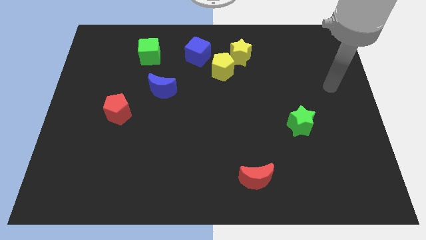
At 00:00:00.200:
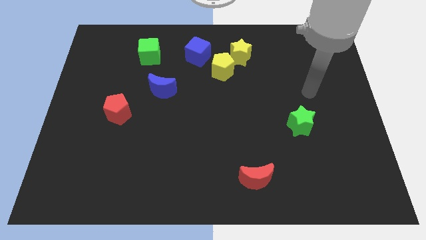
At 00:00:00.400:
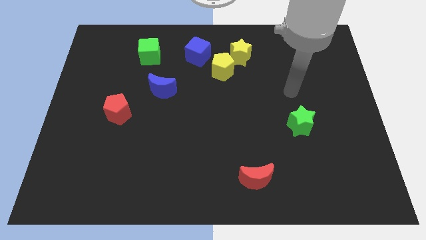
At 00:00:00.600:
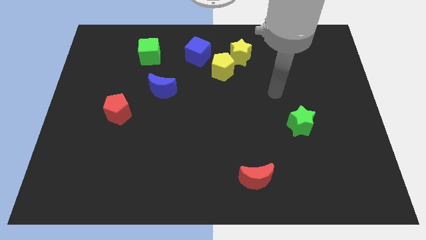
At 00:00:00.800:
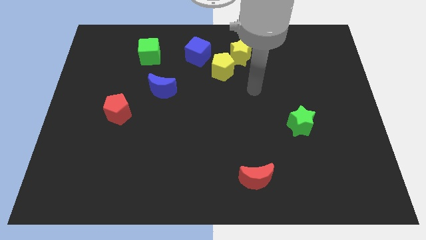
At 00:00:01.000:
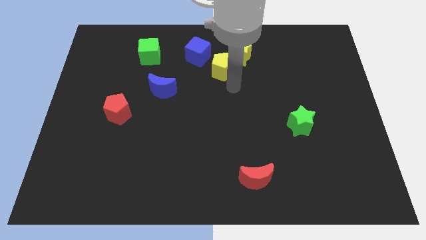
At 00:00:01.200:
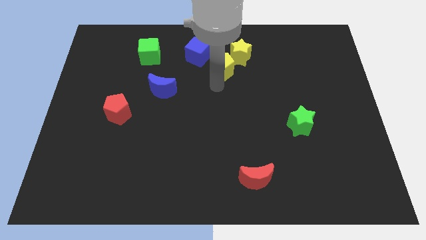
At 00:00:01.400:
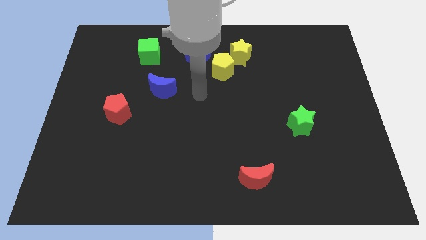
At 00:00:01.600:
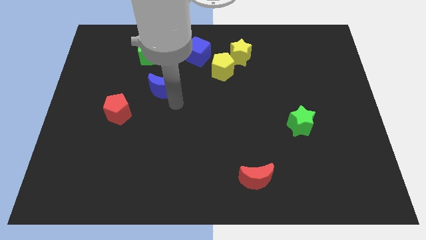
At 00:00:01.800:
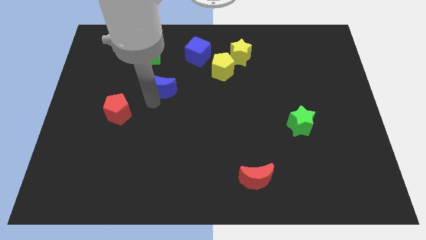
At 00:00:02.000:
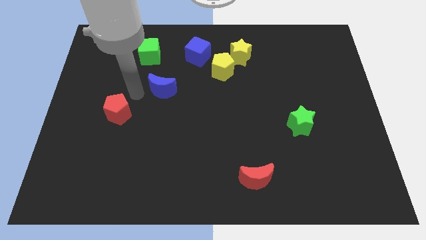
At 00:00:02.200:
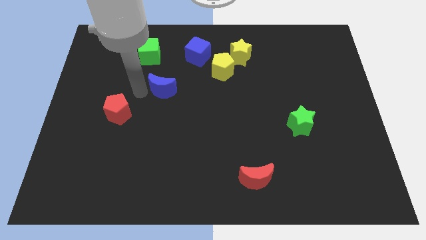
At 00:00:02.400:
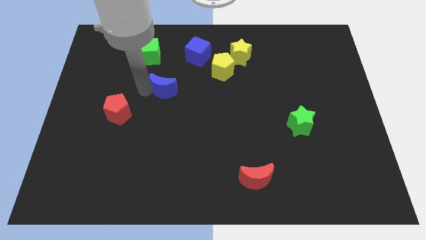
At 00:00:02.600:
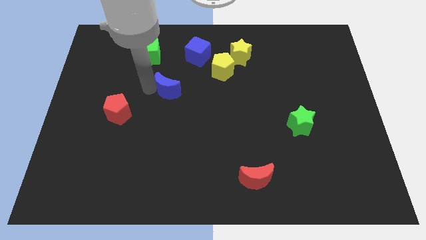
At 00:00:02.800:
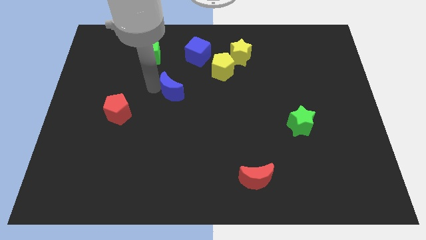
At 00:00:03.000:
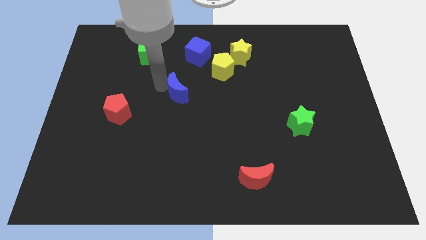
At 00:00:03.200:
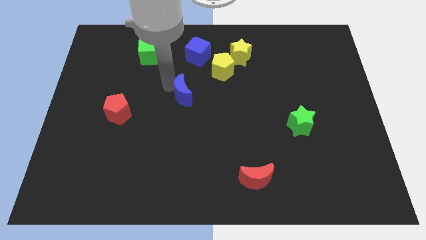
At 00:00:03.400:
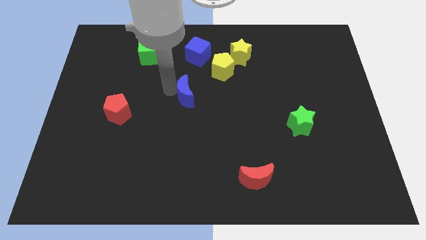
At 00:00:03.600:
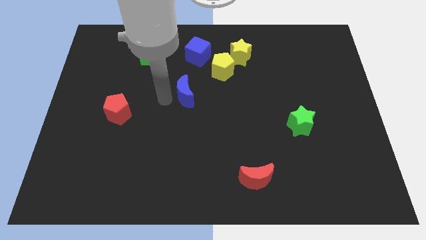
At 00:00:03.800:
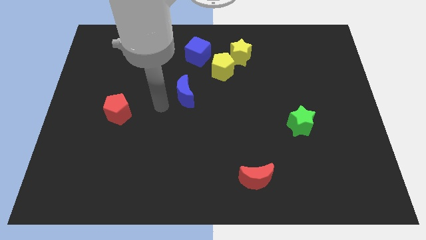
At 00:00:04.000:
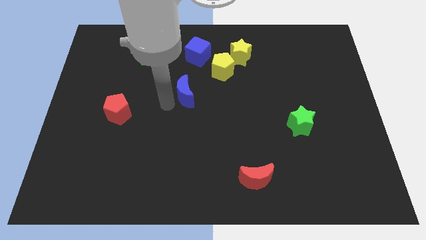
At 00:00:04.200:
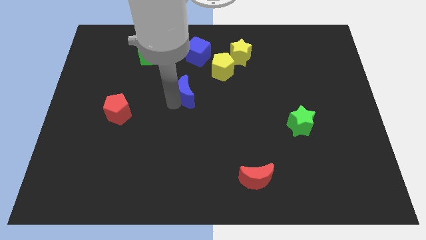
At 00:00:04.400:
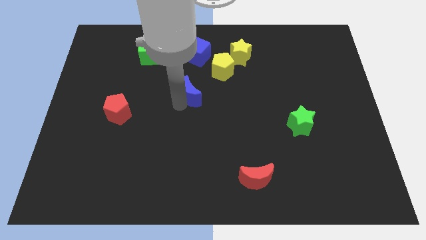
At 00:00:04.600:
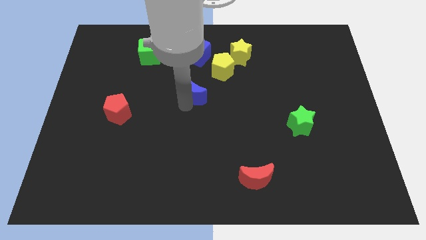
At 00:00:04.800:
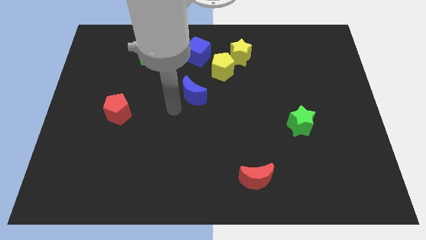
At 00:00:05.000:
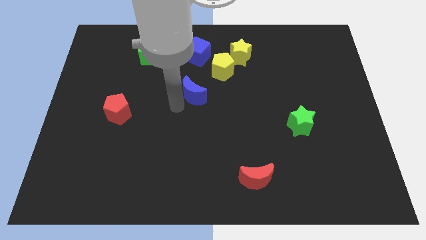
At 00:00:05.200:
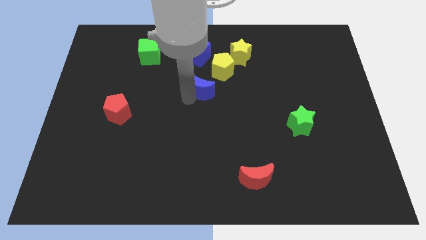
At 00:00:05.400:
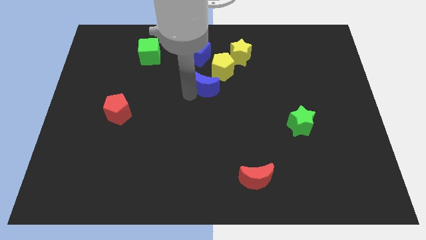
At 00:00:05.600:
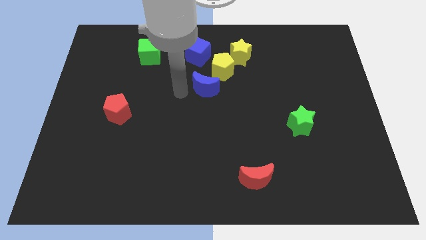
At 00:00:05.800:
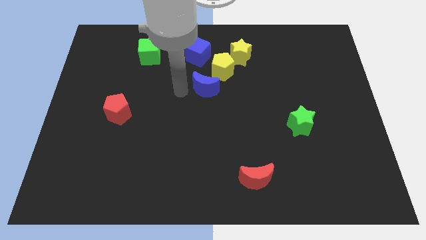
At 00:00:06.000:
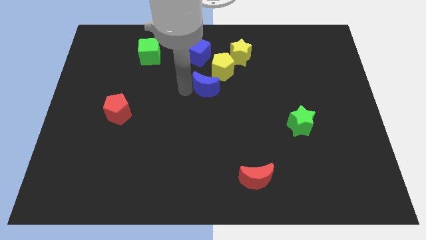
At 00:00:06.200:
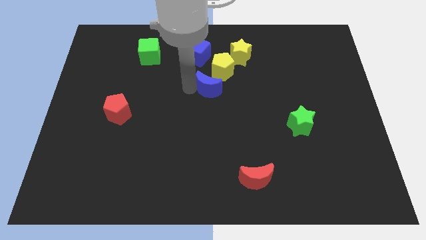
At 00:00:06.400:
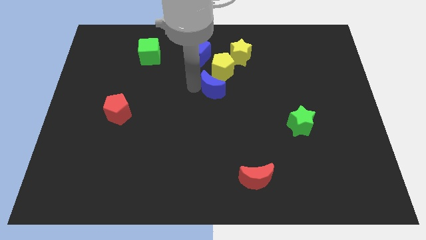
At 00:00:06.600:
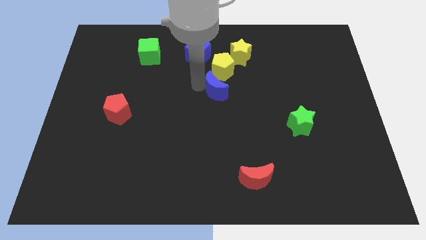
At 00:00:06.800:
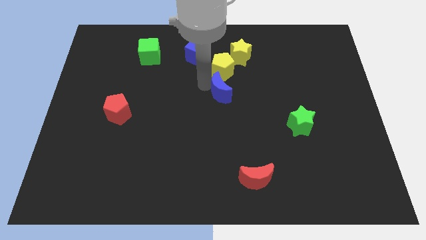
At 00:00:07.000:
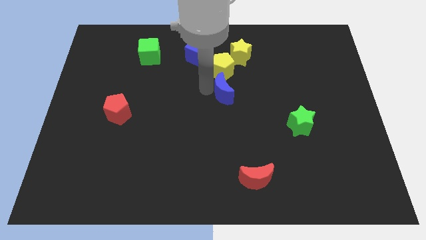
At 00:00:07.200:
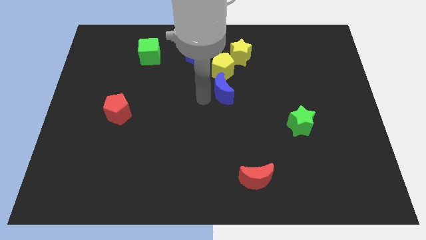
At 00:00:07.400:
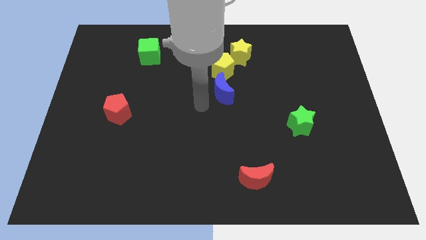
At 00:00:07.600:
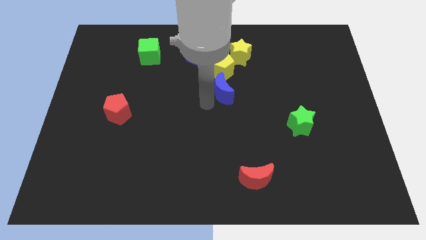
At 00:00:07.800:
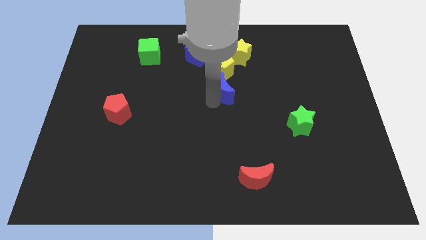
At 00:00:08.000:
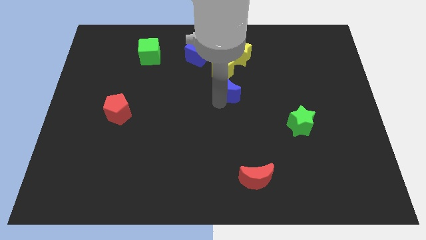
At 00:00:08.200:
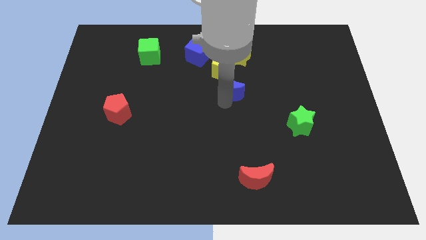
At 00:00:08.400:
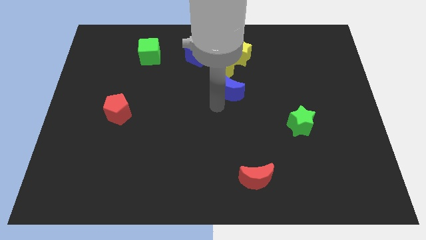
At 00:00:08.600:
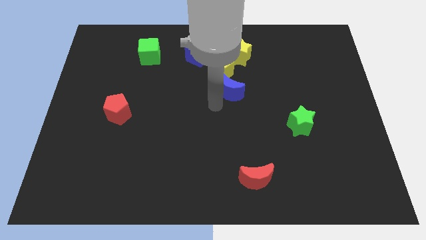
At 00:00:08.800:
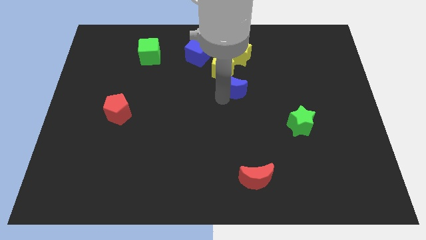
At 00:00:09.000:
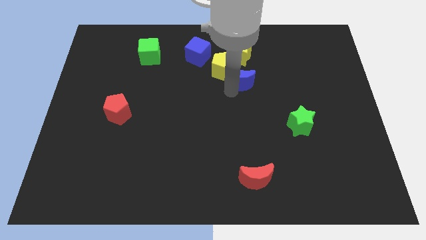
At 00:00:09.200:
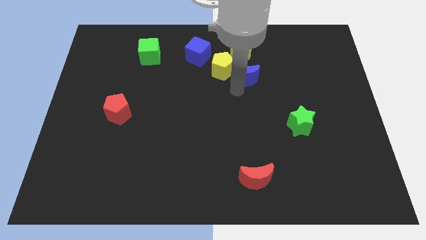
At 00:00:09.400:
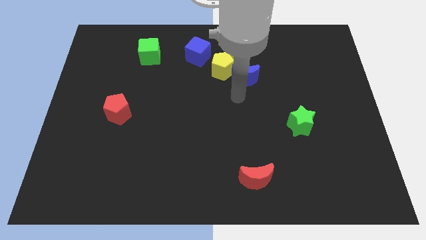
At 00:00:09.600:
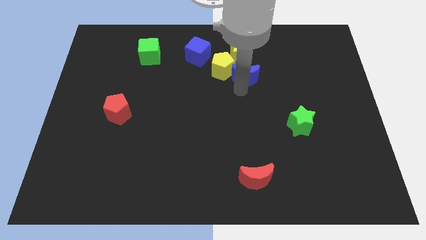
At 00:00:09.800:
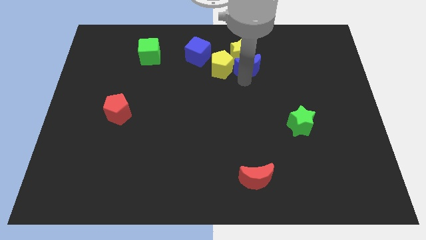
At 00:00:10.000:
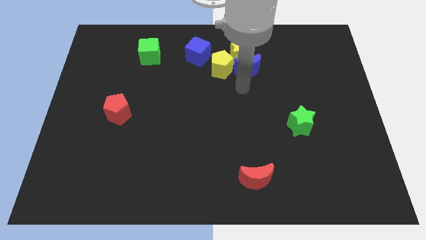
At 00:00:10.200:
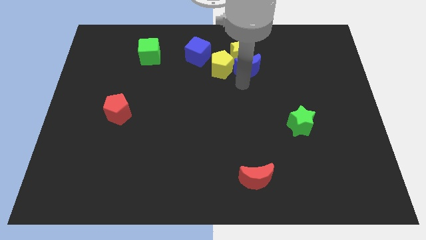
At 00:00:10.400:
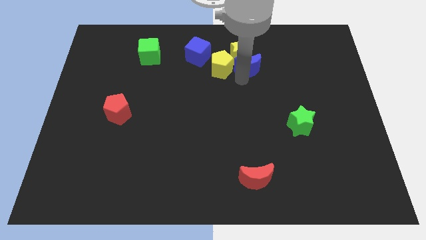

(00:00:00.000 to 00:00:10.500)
move the blue moon diagonally up and to the right of the yellow pentagon

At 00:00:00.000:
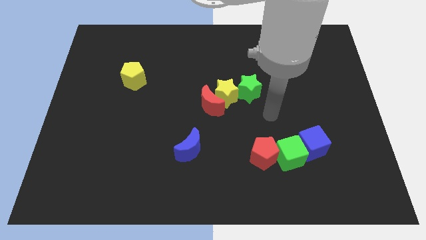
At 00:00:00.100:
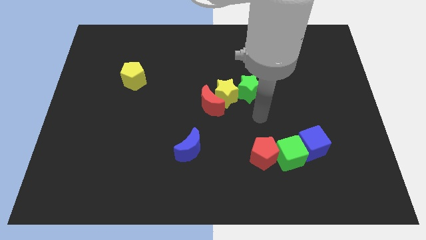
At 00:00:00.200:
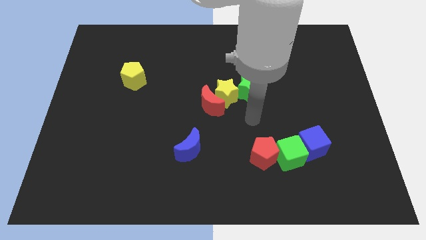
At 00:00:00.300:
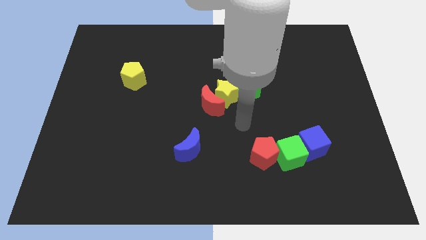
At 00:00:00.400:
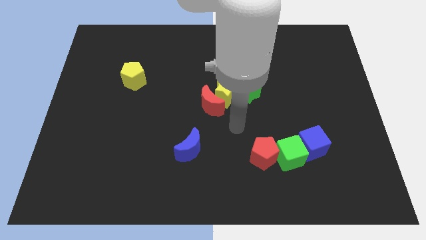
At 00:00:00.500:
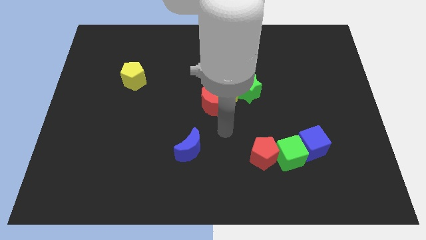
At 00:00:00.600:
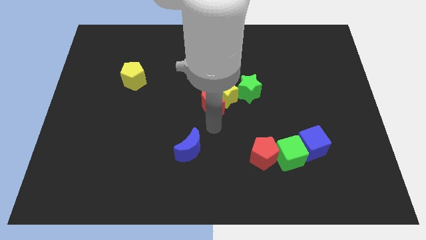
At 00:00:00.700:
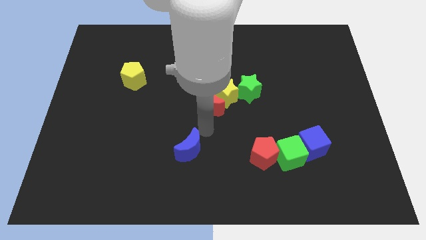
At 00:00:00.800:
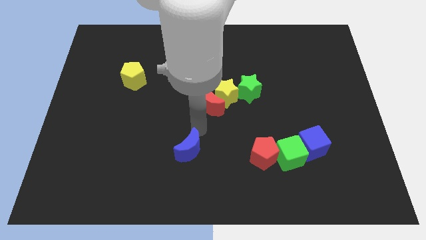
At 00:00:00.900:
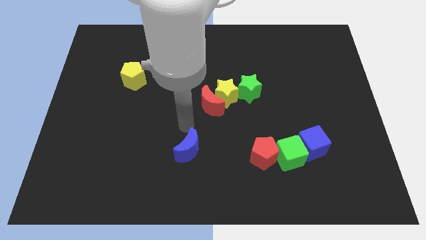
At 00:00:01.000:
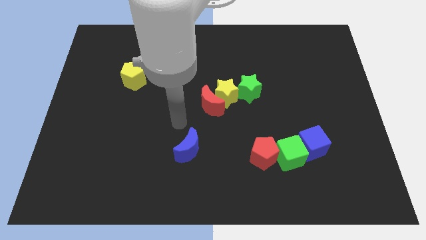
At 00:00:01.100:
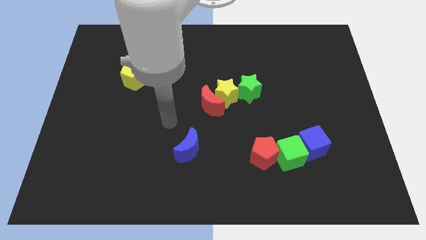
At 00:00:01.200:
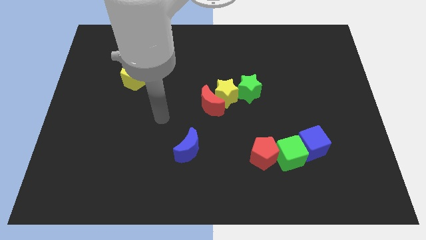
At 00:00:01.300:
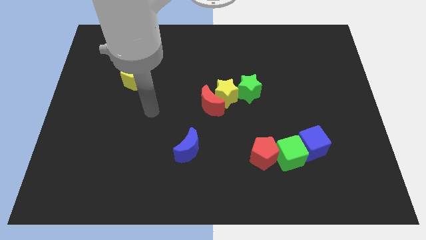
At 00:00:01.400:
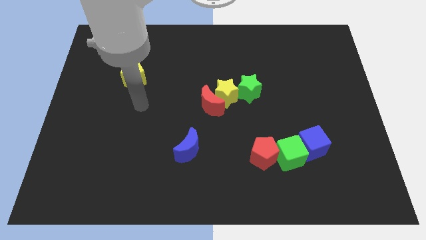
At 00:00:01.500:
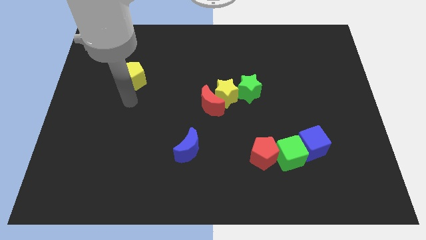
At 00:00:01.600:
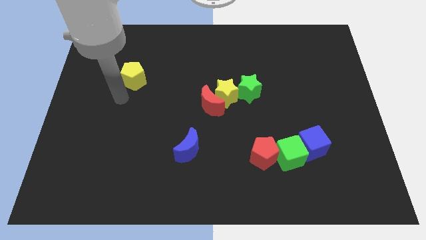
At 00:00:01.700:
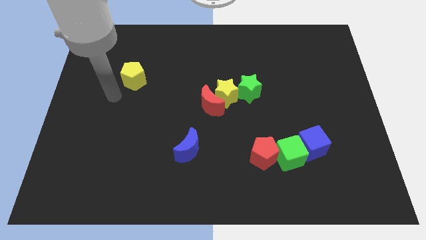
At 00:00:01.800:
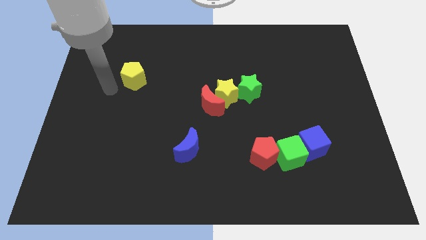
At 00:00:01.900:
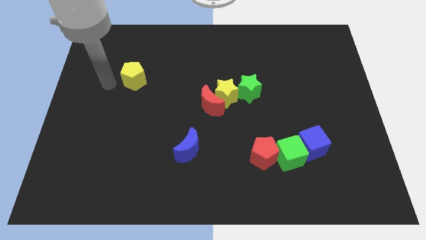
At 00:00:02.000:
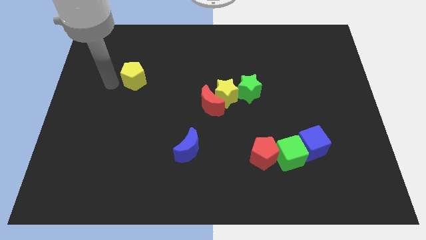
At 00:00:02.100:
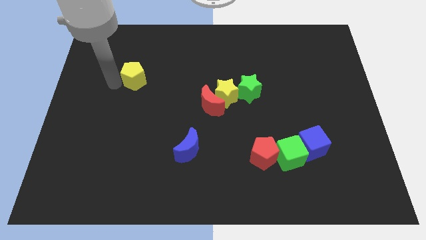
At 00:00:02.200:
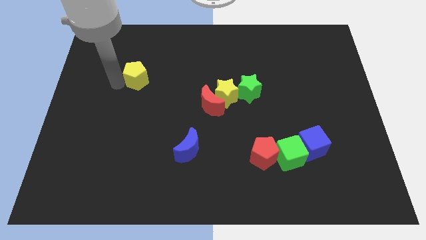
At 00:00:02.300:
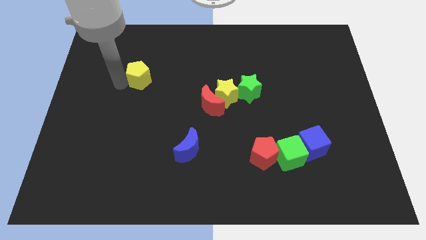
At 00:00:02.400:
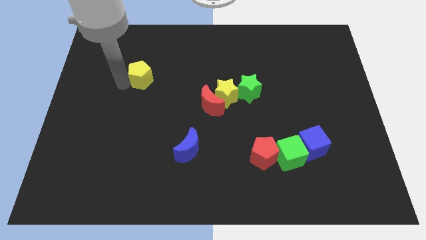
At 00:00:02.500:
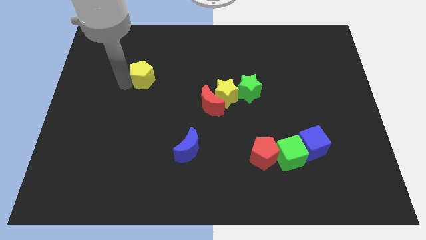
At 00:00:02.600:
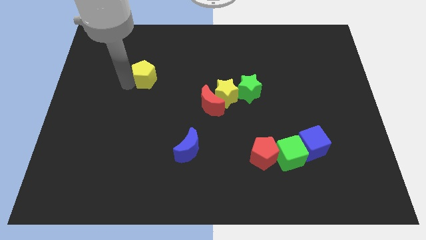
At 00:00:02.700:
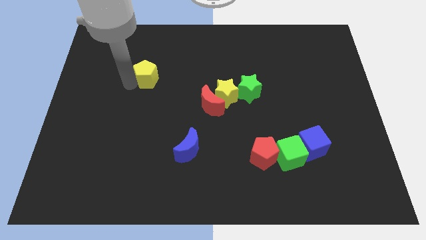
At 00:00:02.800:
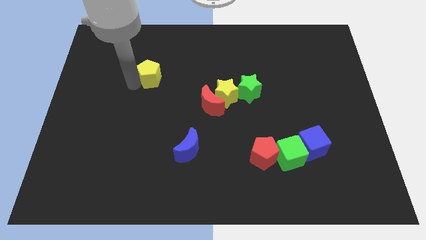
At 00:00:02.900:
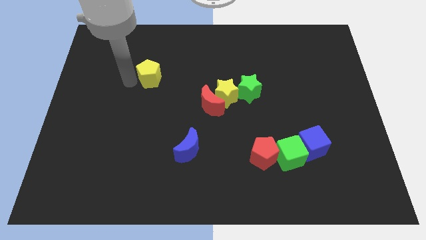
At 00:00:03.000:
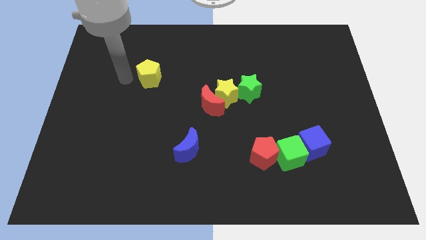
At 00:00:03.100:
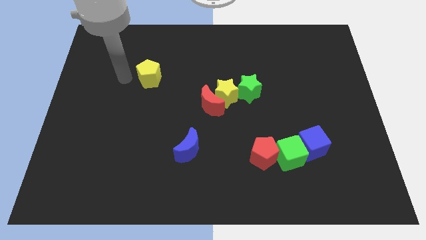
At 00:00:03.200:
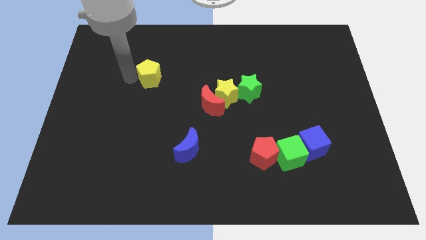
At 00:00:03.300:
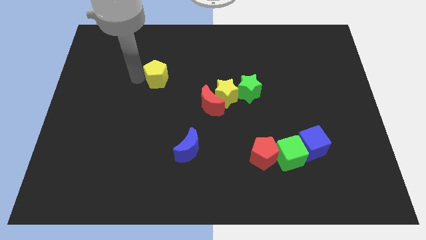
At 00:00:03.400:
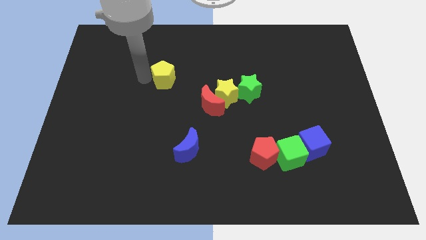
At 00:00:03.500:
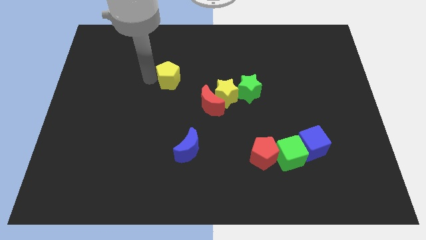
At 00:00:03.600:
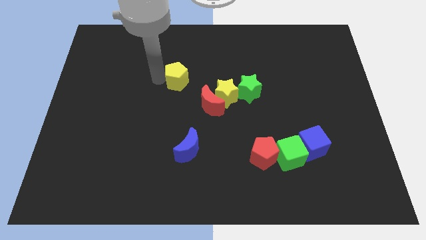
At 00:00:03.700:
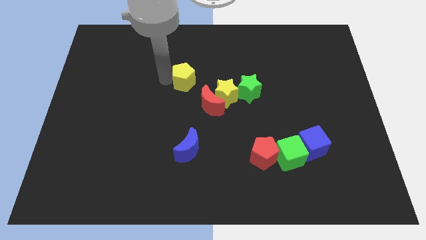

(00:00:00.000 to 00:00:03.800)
move the yellow pentagon to the top left of the yellow star
